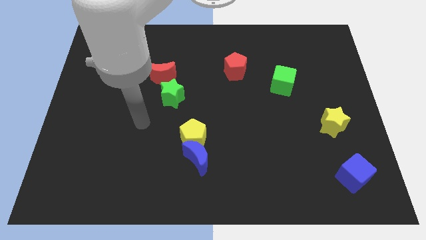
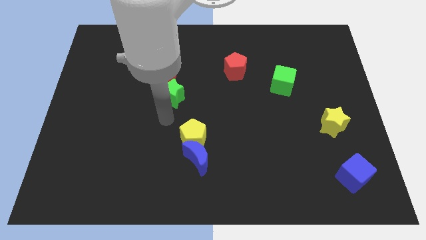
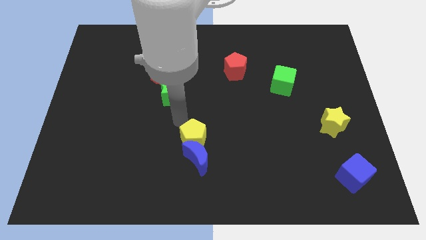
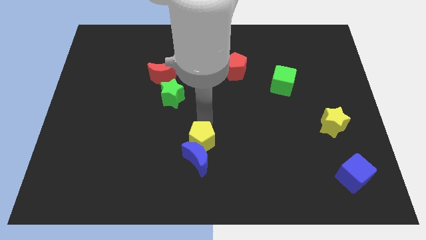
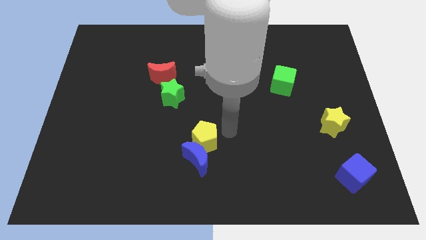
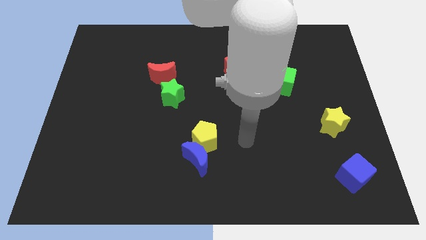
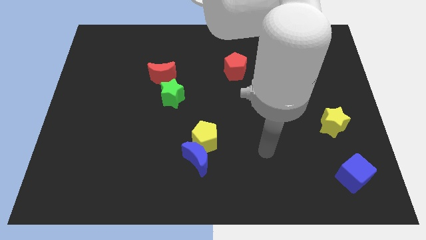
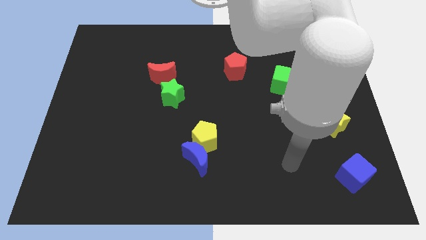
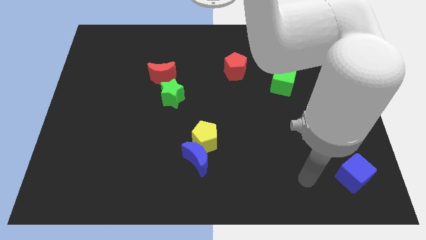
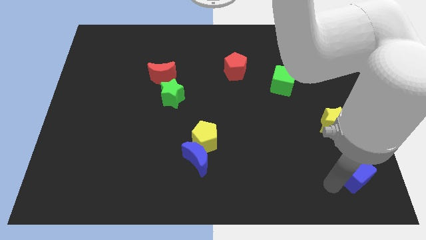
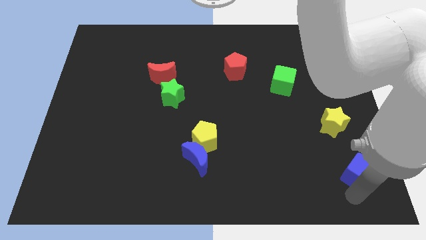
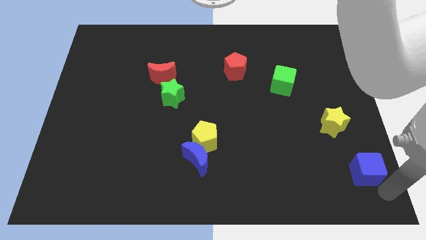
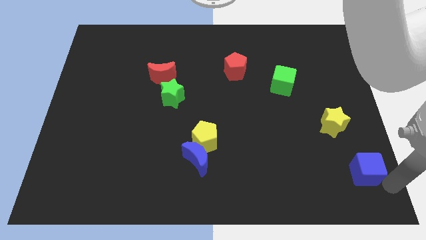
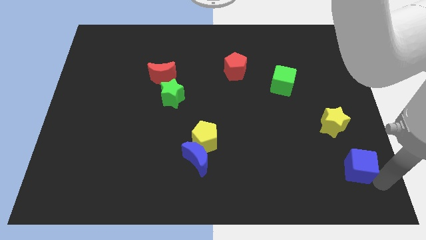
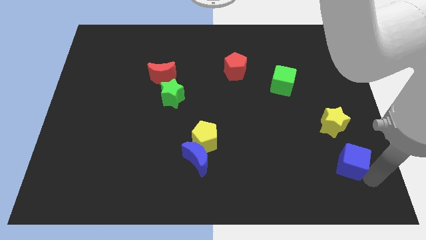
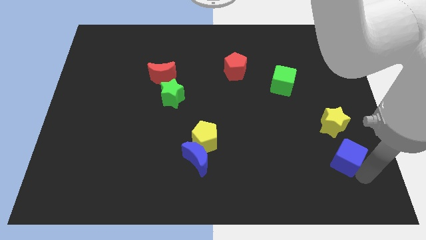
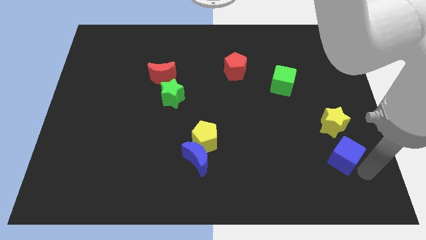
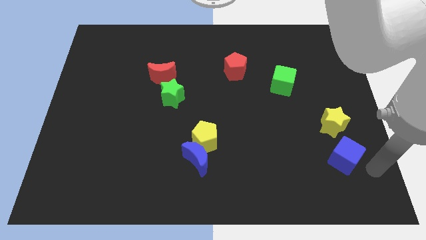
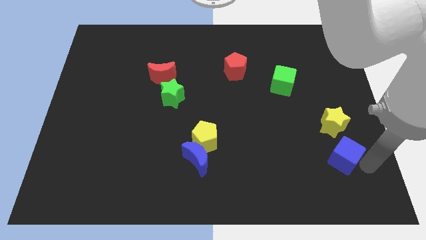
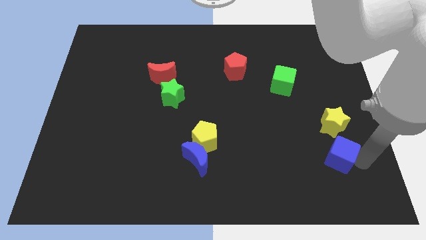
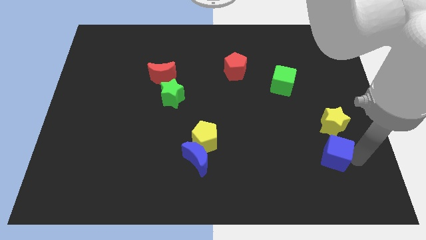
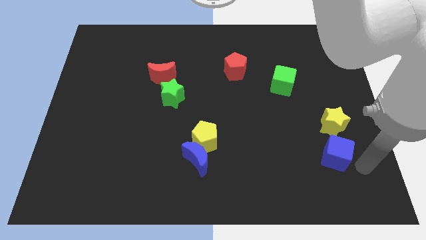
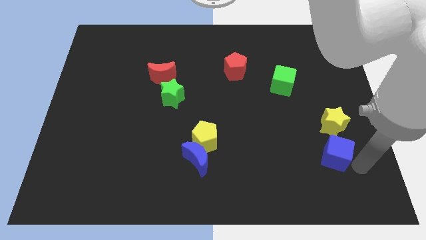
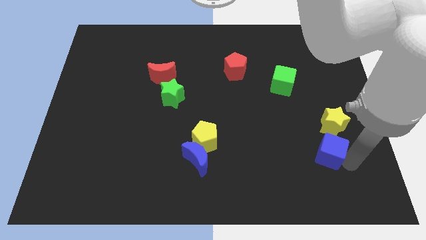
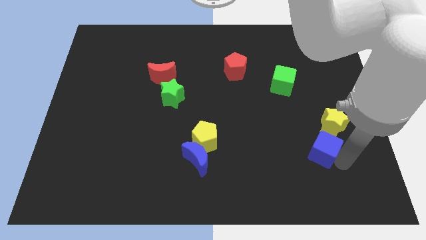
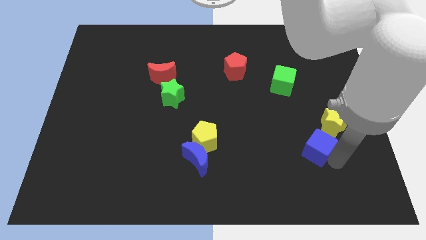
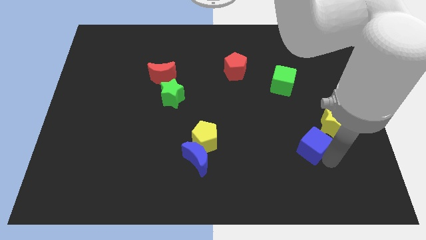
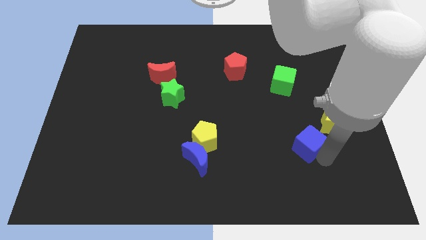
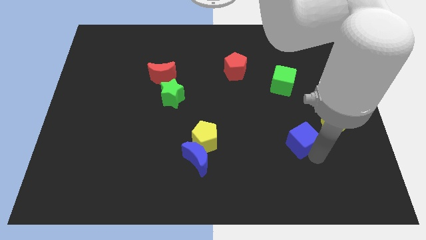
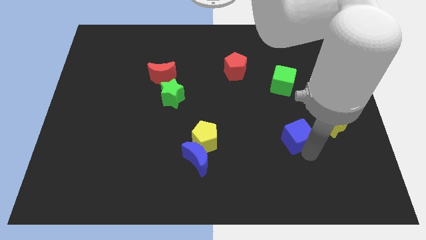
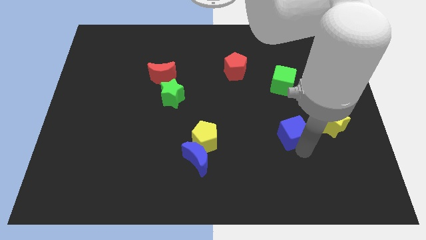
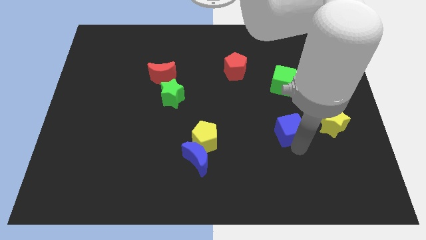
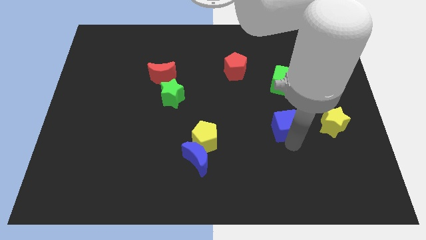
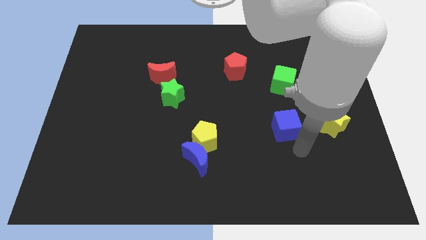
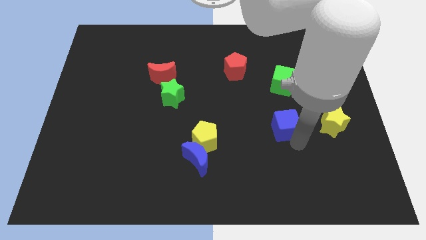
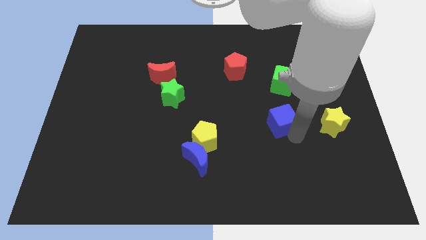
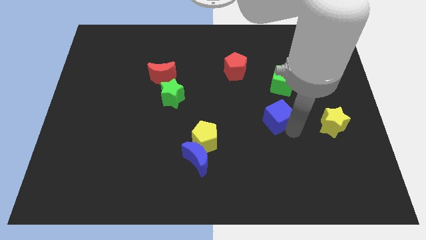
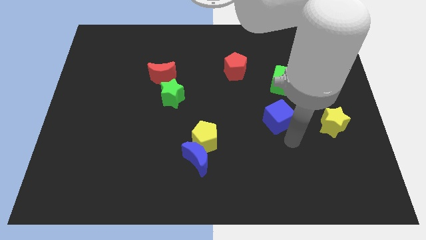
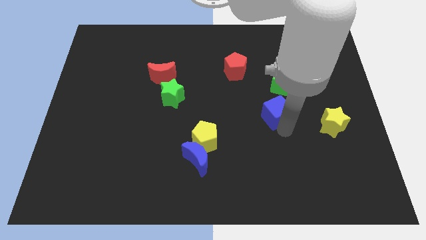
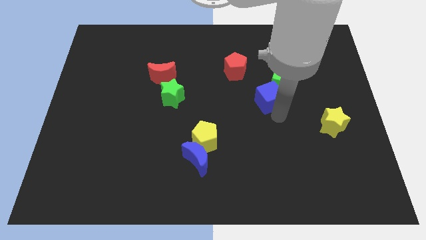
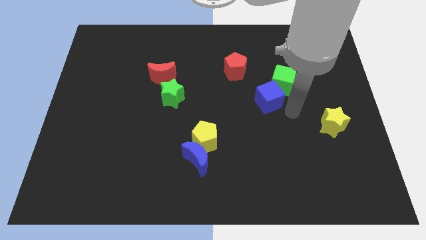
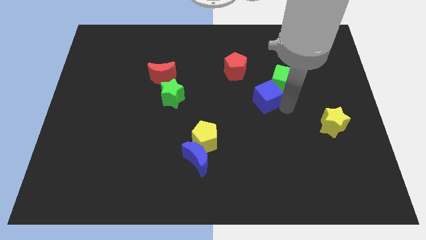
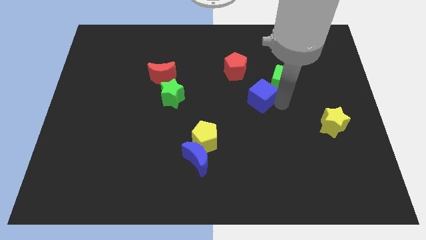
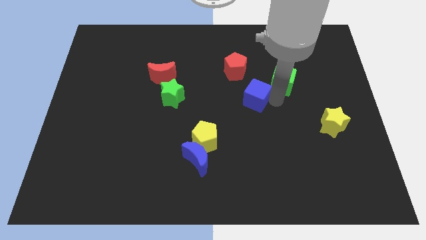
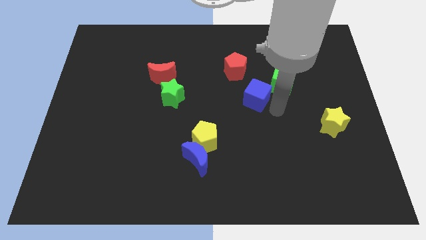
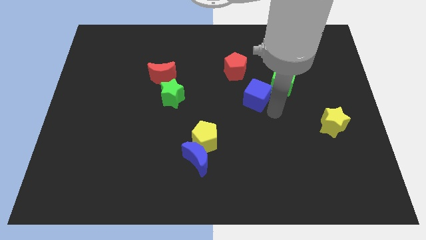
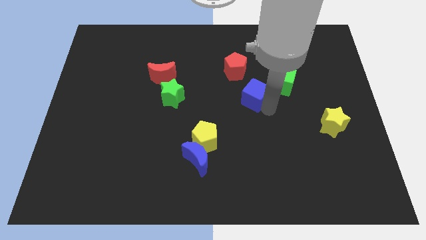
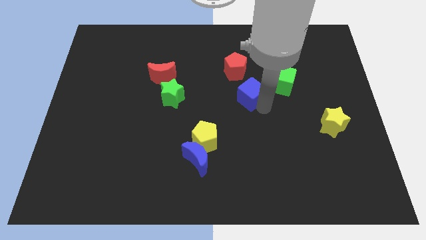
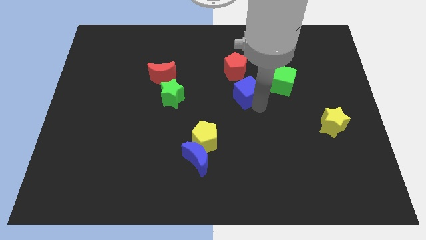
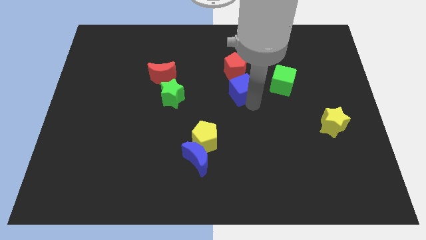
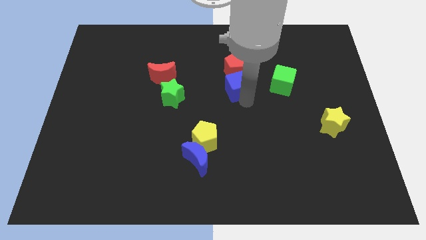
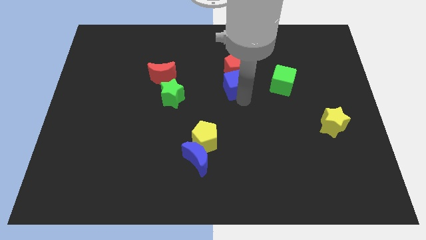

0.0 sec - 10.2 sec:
move the blue cube towards the red pentagon

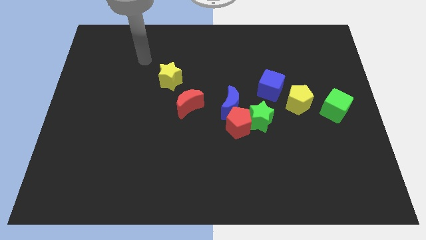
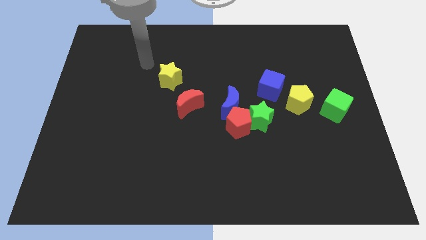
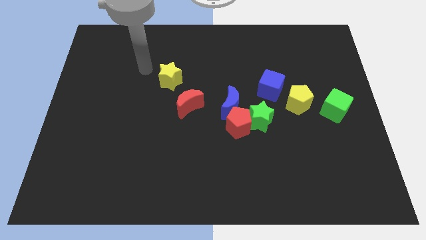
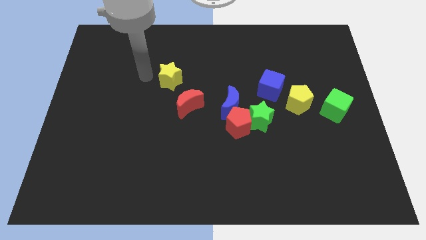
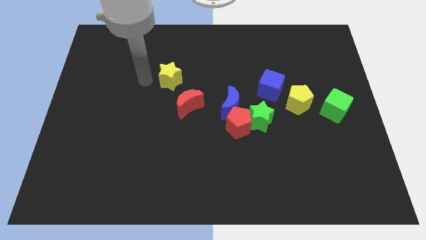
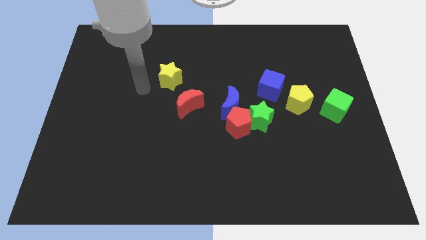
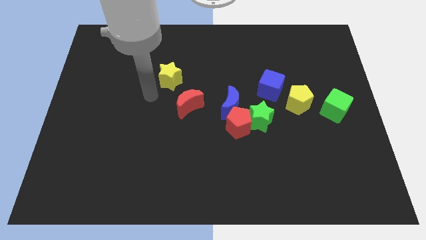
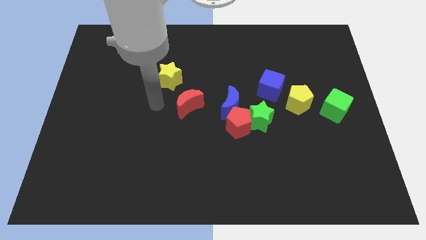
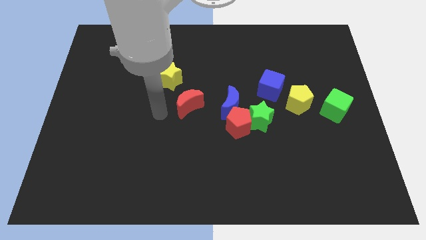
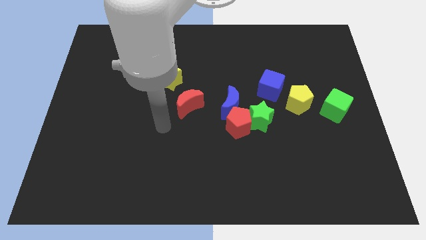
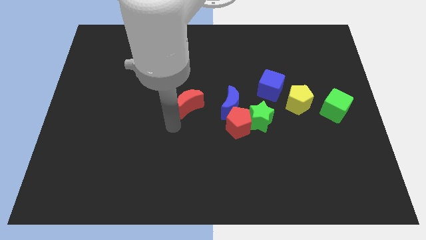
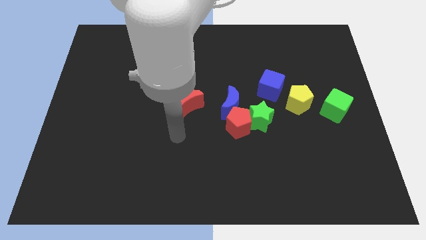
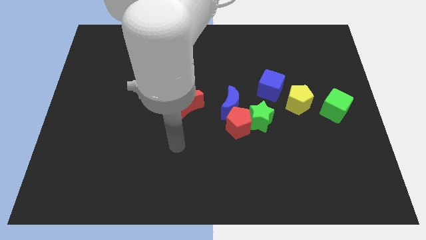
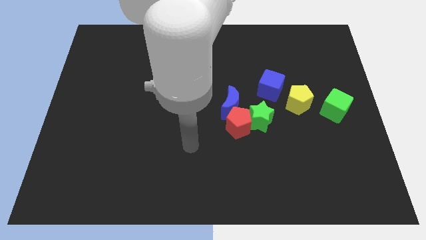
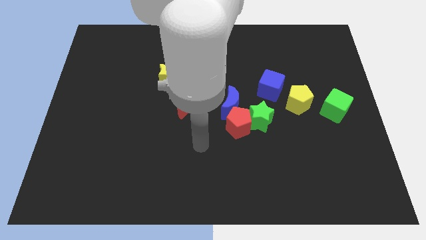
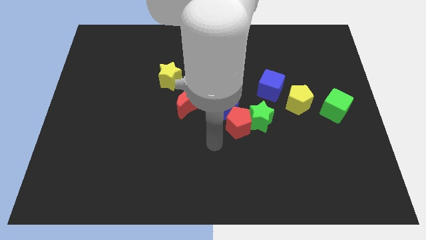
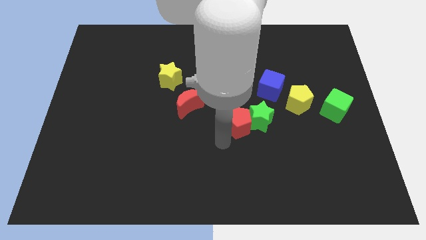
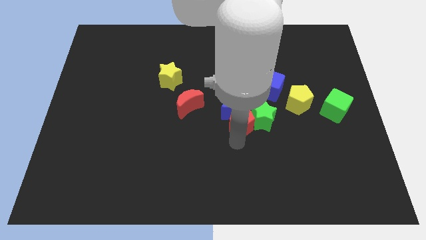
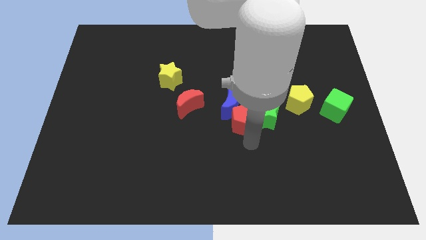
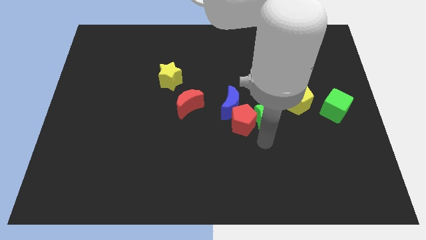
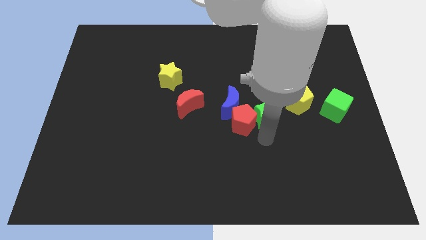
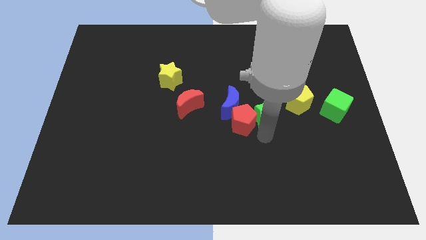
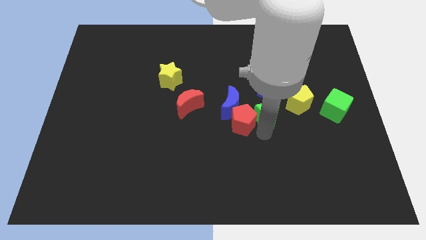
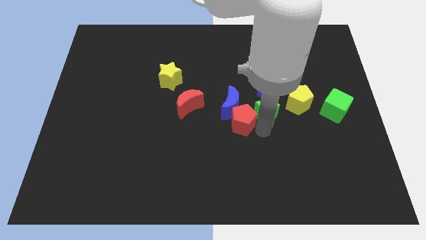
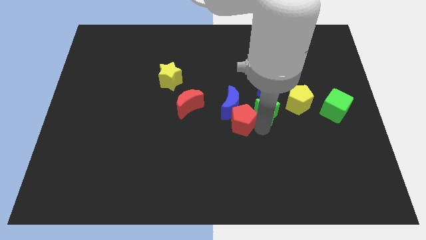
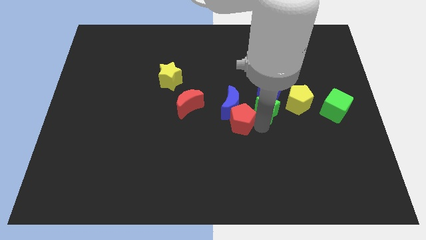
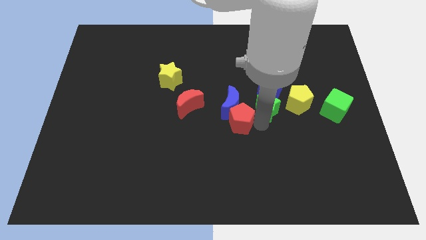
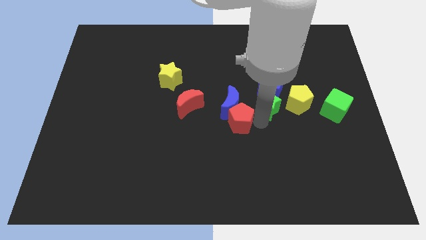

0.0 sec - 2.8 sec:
put the green star close to the blue cube
